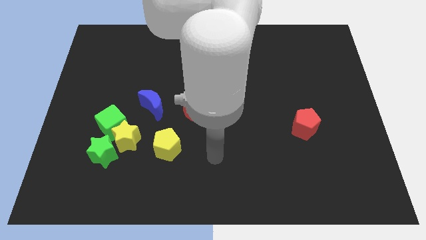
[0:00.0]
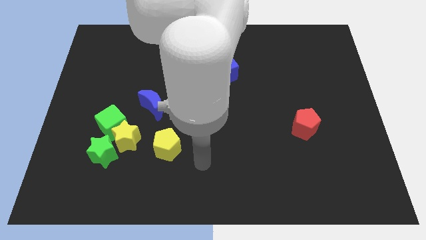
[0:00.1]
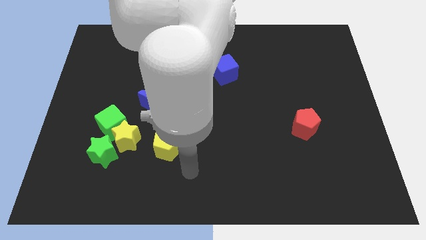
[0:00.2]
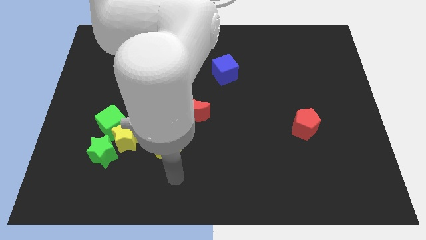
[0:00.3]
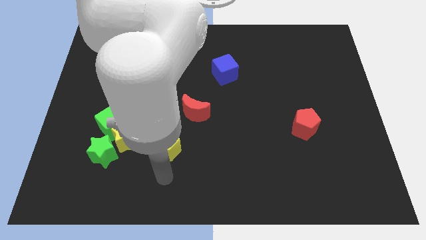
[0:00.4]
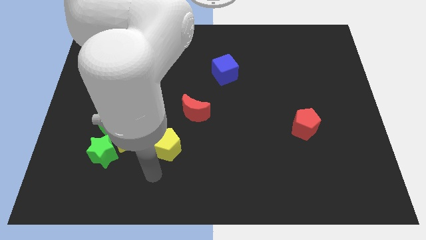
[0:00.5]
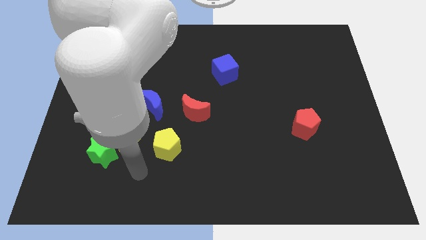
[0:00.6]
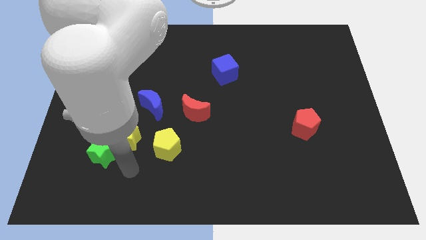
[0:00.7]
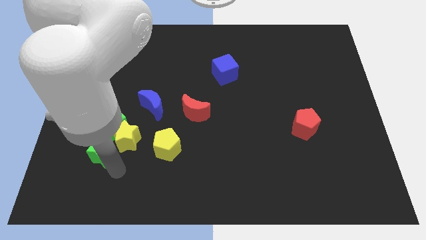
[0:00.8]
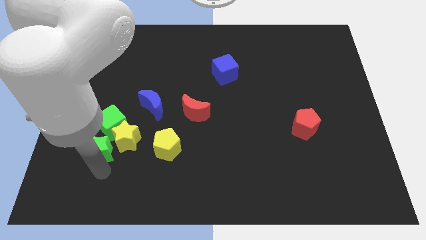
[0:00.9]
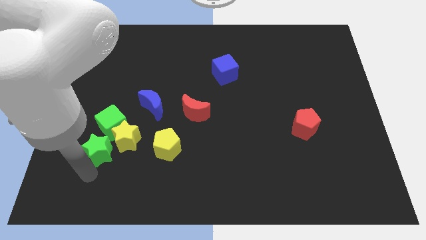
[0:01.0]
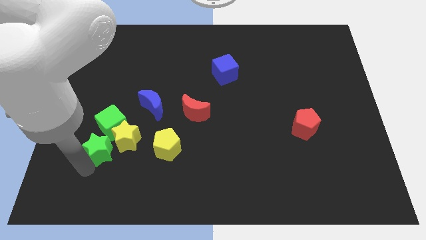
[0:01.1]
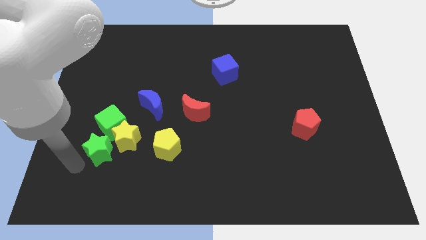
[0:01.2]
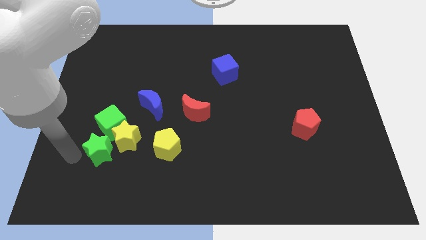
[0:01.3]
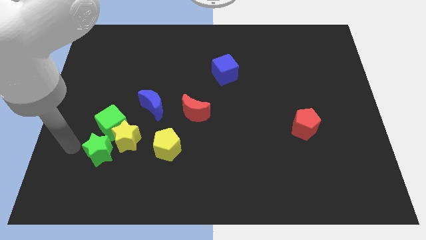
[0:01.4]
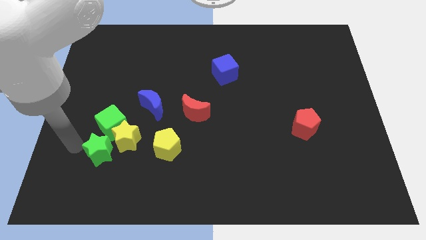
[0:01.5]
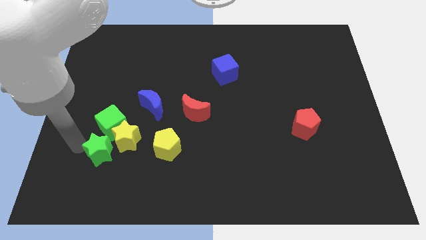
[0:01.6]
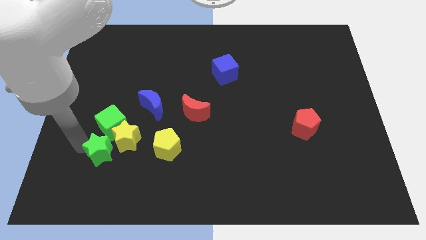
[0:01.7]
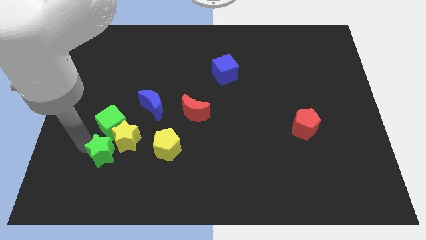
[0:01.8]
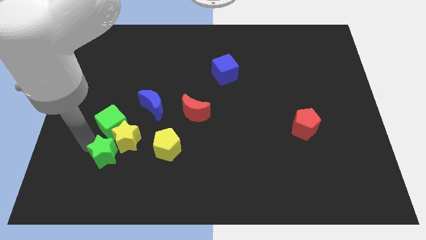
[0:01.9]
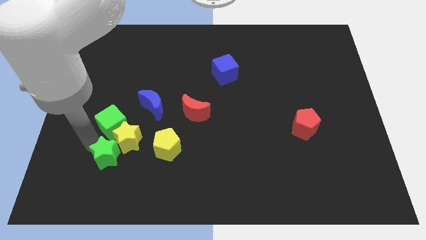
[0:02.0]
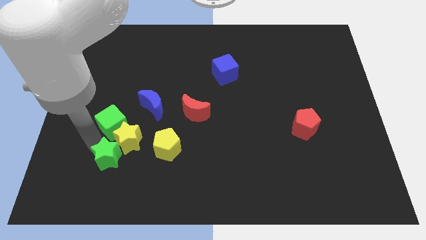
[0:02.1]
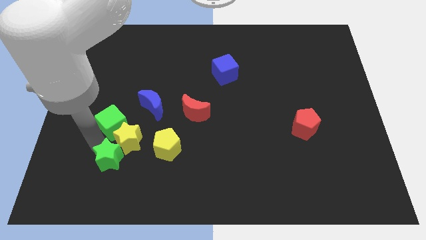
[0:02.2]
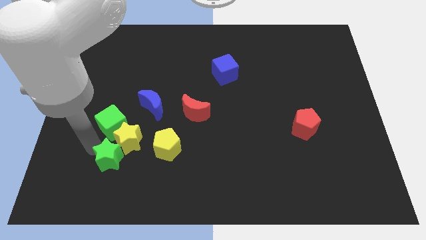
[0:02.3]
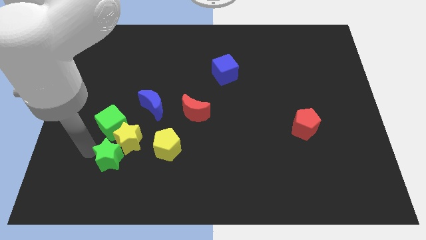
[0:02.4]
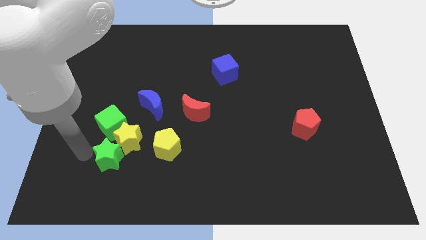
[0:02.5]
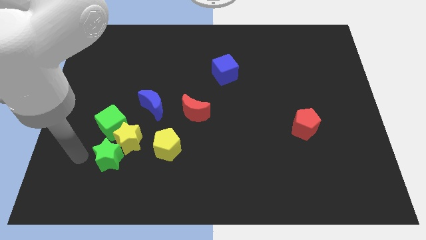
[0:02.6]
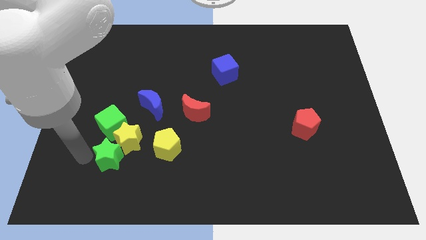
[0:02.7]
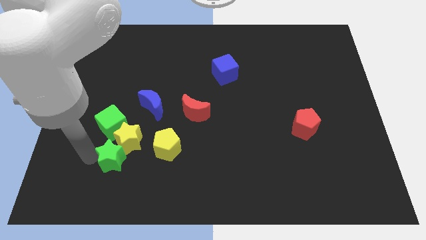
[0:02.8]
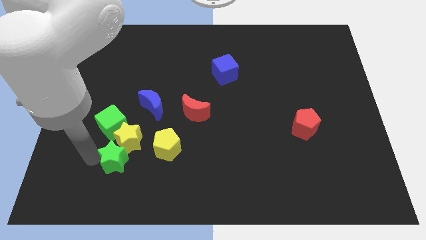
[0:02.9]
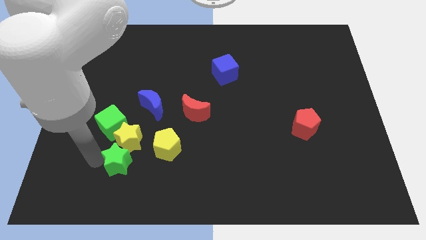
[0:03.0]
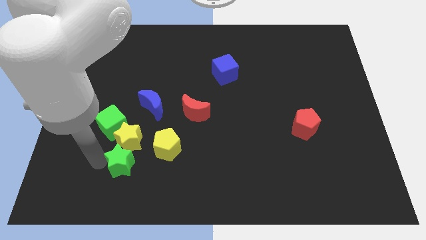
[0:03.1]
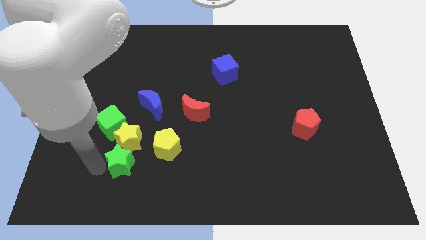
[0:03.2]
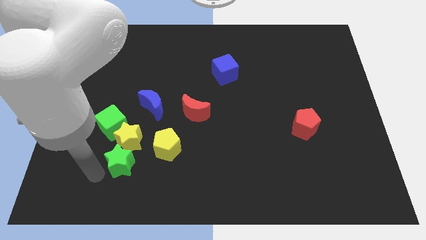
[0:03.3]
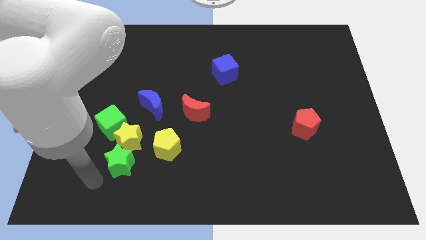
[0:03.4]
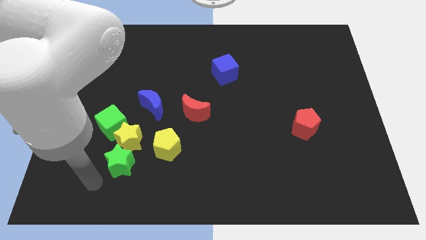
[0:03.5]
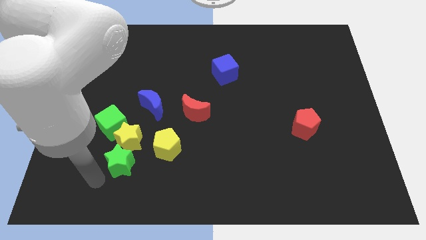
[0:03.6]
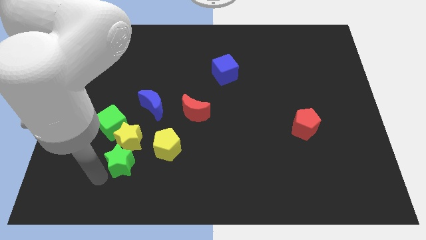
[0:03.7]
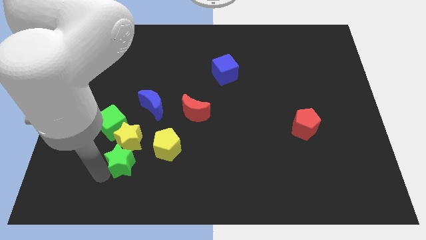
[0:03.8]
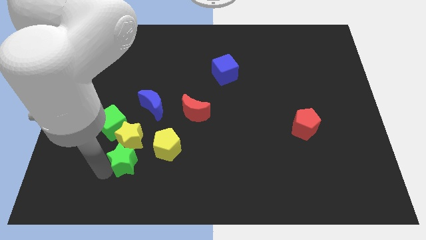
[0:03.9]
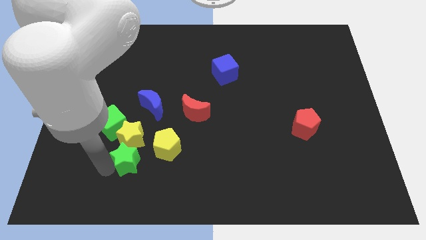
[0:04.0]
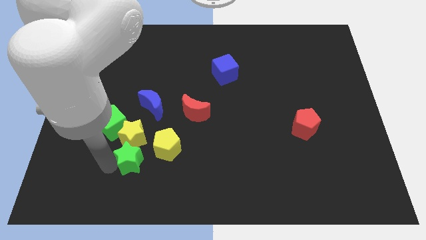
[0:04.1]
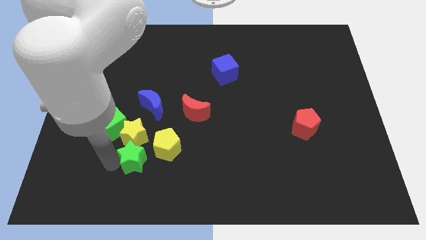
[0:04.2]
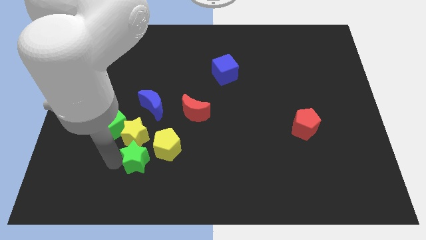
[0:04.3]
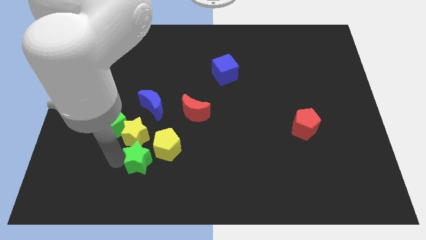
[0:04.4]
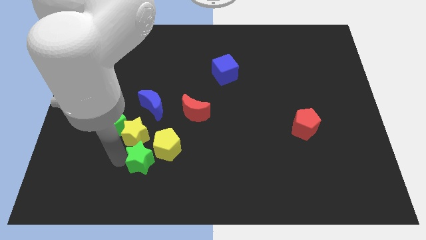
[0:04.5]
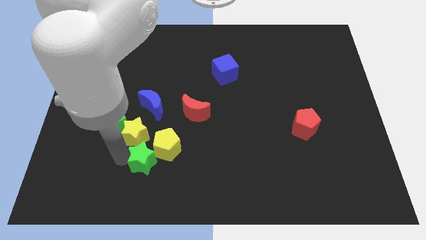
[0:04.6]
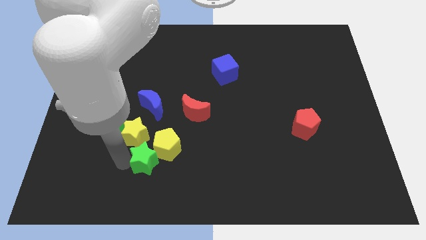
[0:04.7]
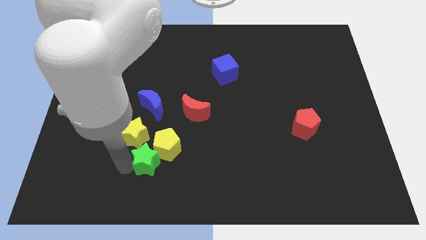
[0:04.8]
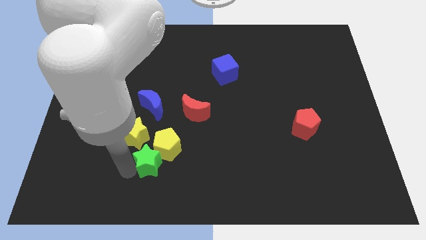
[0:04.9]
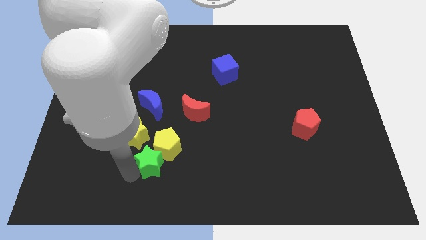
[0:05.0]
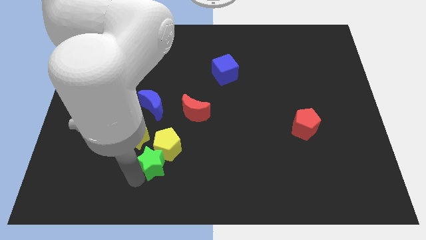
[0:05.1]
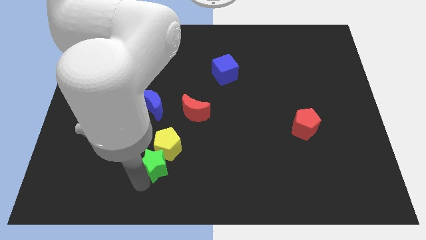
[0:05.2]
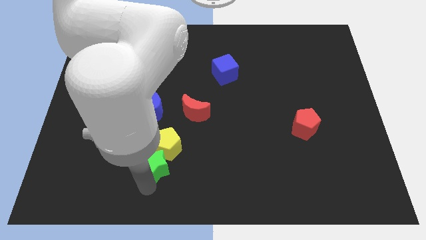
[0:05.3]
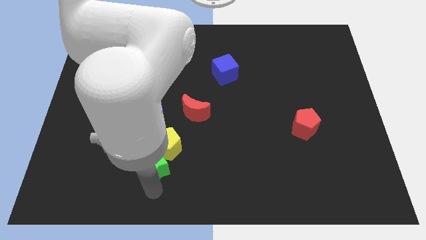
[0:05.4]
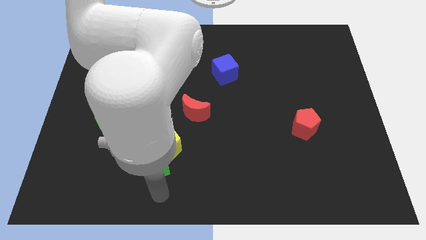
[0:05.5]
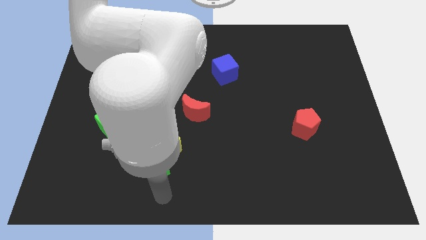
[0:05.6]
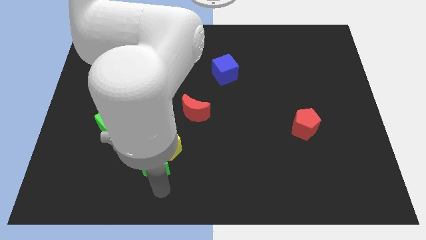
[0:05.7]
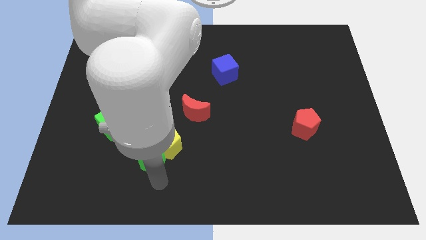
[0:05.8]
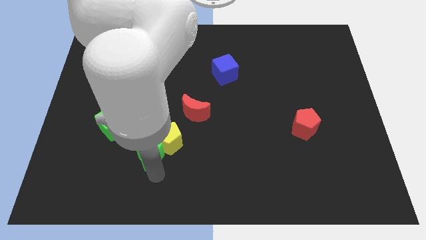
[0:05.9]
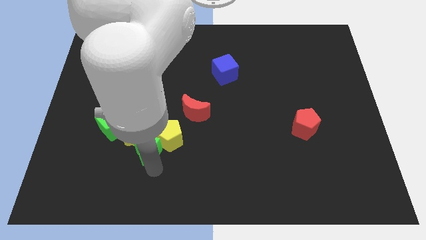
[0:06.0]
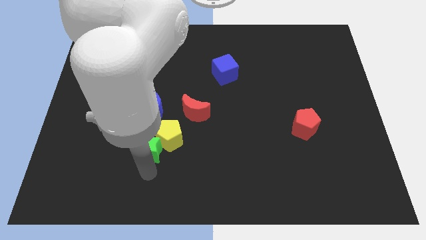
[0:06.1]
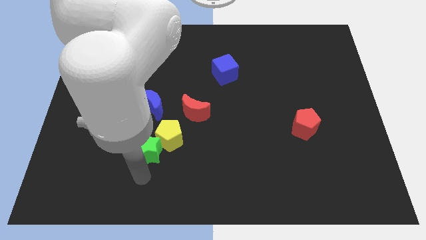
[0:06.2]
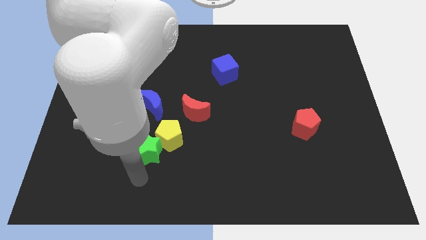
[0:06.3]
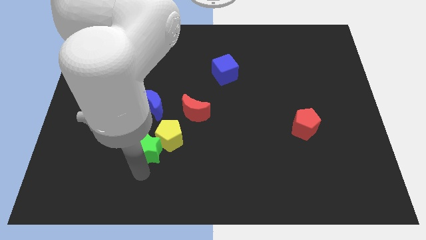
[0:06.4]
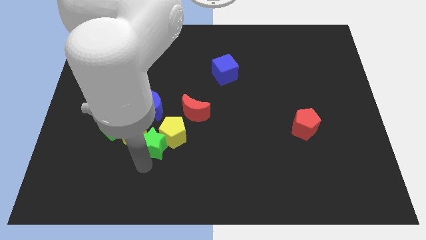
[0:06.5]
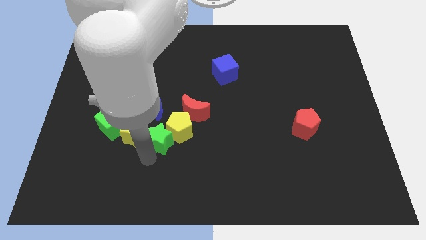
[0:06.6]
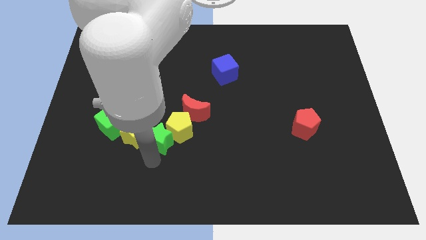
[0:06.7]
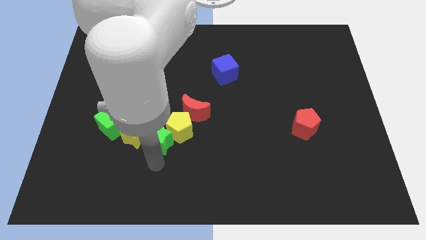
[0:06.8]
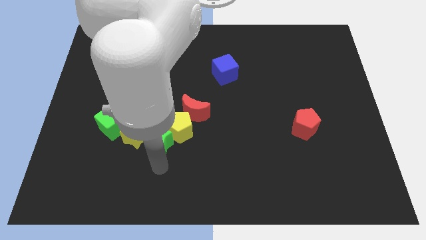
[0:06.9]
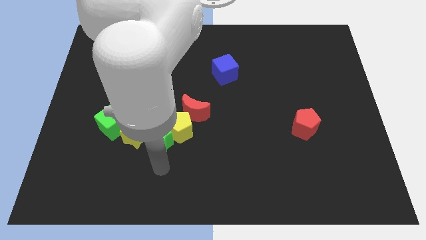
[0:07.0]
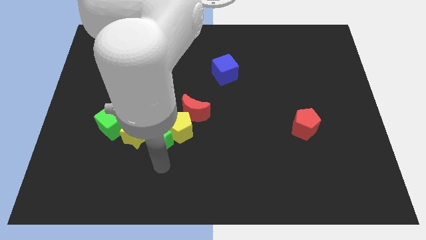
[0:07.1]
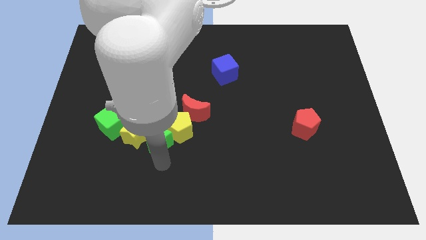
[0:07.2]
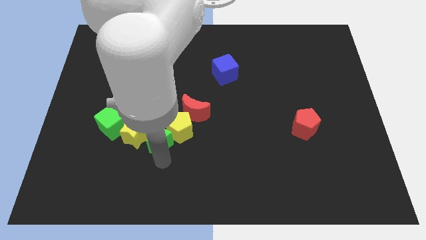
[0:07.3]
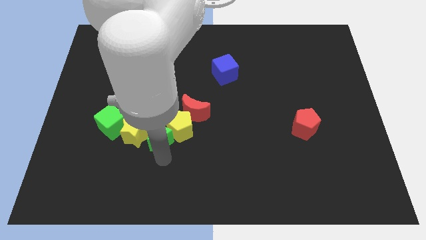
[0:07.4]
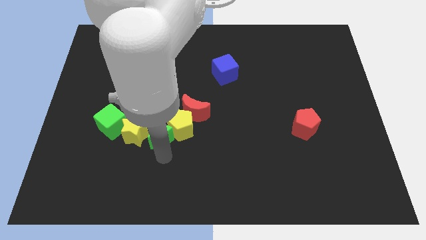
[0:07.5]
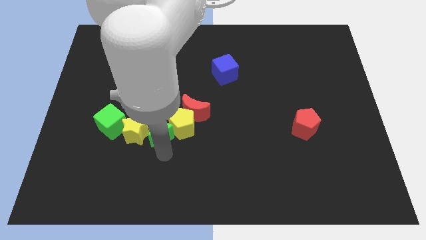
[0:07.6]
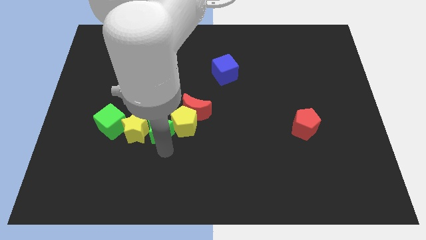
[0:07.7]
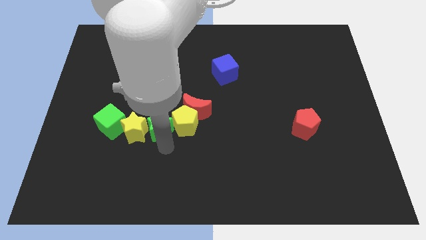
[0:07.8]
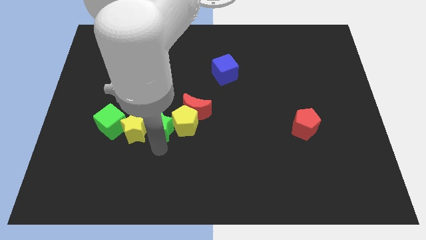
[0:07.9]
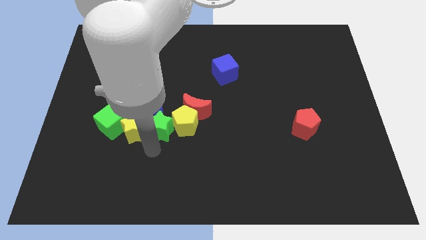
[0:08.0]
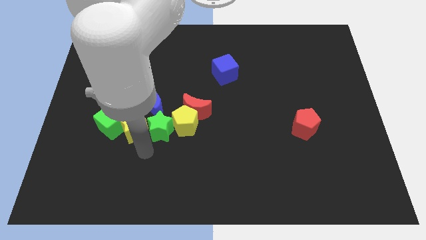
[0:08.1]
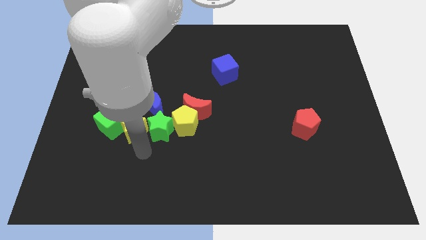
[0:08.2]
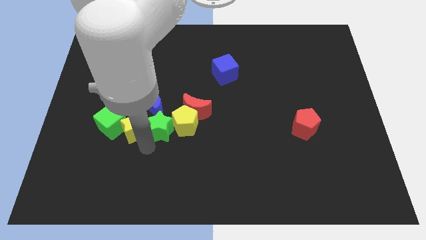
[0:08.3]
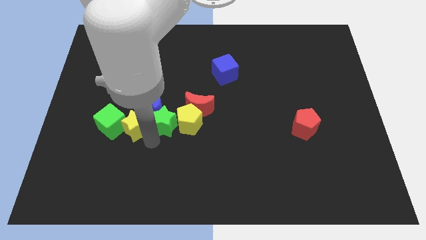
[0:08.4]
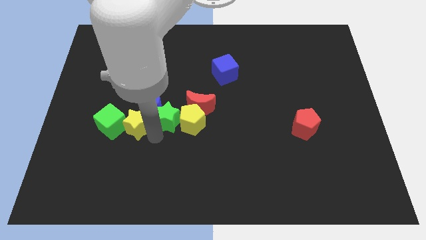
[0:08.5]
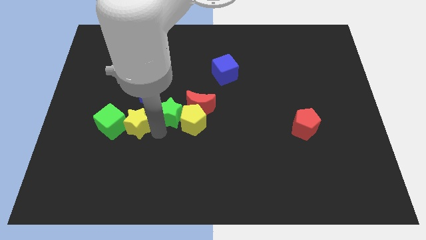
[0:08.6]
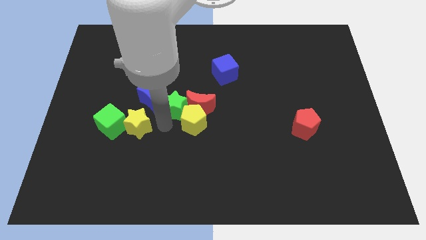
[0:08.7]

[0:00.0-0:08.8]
push the green star to the top left of the red moon
